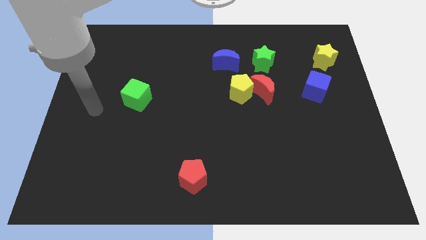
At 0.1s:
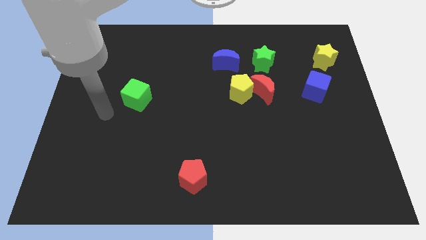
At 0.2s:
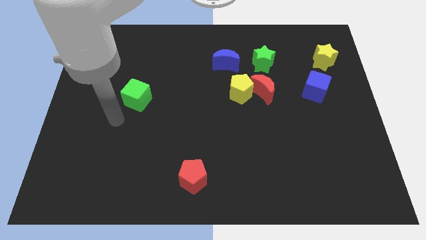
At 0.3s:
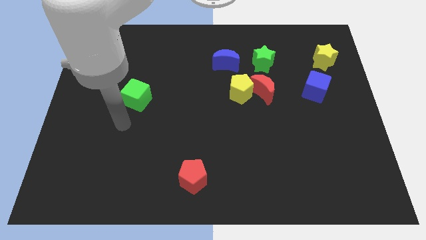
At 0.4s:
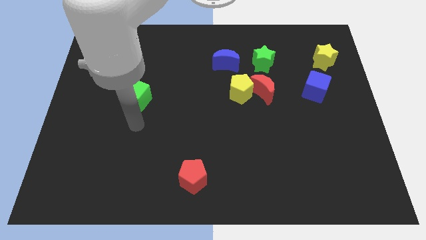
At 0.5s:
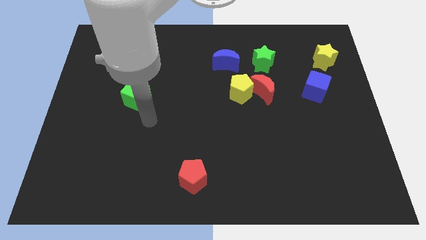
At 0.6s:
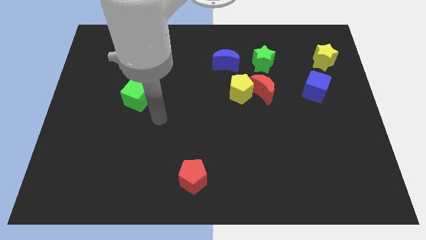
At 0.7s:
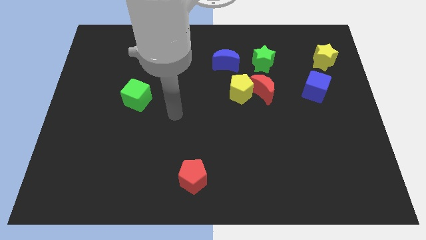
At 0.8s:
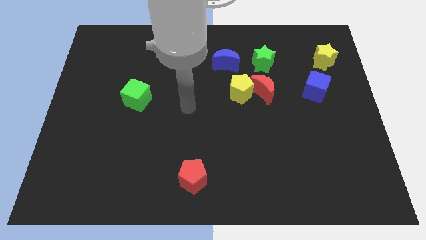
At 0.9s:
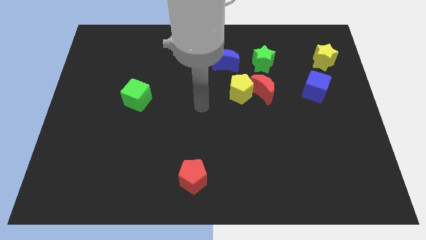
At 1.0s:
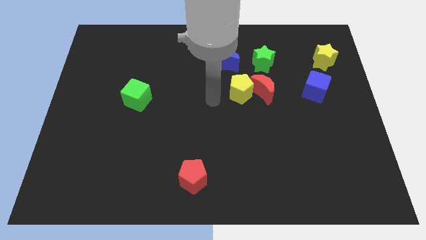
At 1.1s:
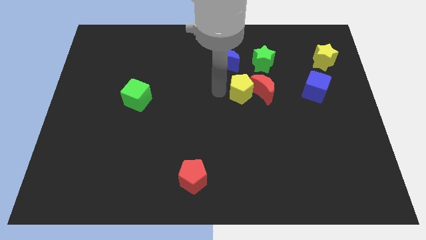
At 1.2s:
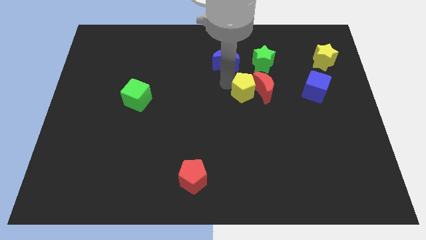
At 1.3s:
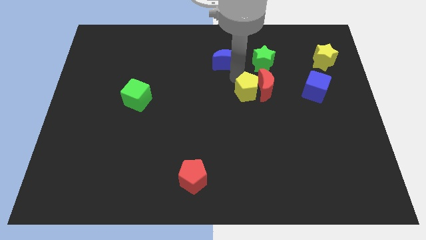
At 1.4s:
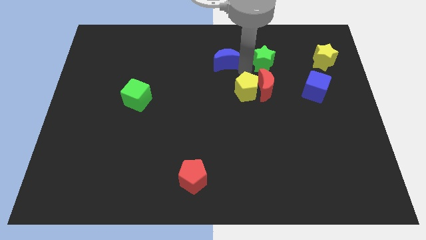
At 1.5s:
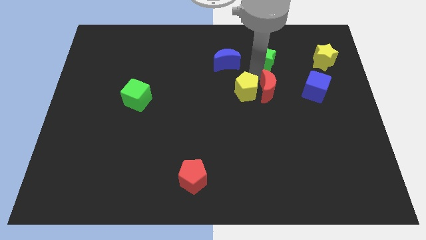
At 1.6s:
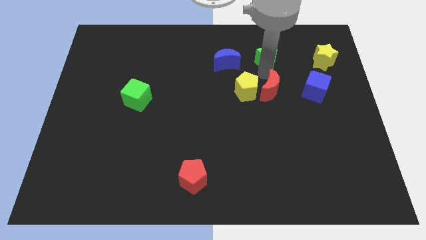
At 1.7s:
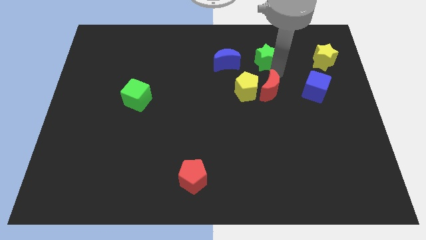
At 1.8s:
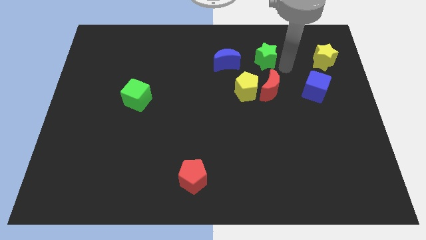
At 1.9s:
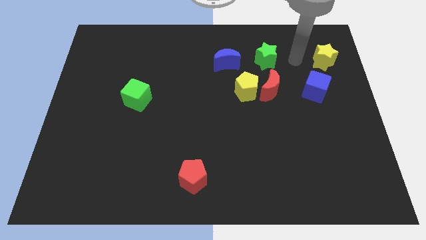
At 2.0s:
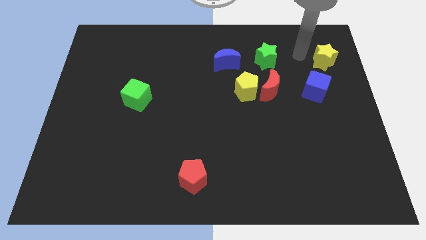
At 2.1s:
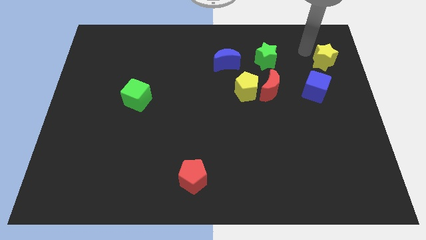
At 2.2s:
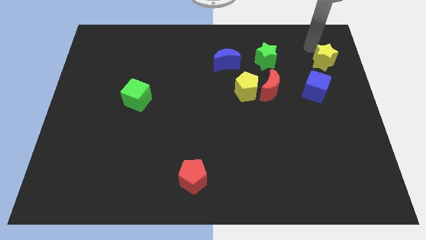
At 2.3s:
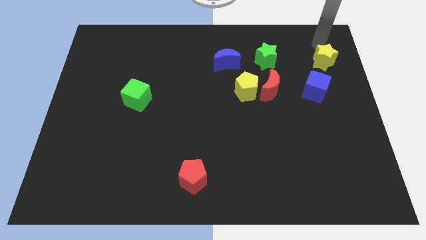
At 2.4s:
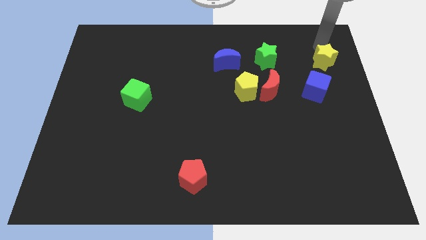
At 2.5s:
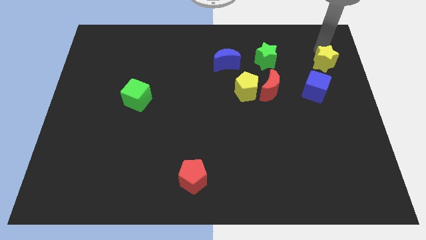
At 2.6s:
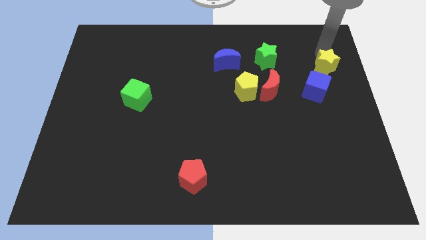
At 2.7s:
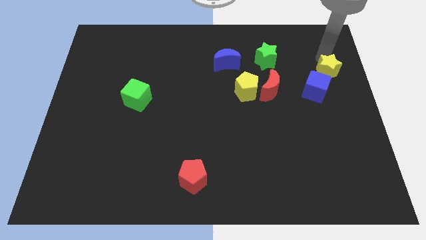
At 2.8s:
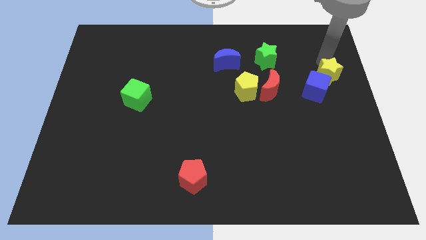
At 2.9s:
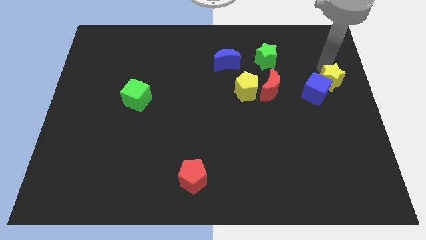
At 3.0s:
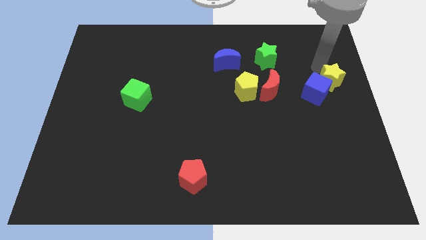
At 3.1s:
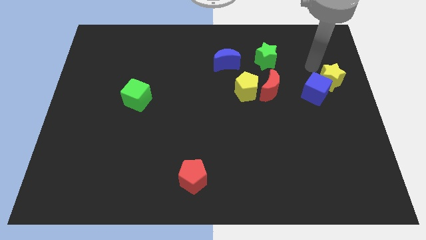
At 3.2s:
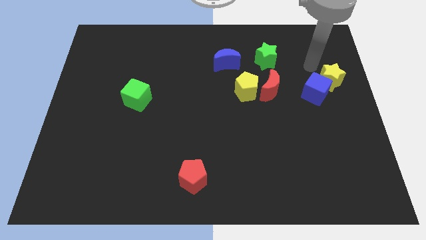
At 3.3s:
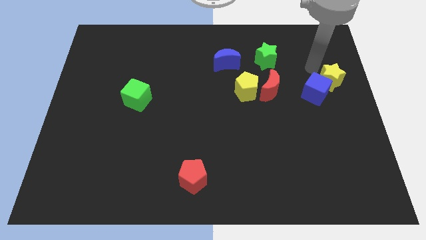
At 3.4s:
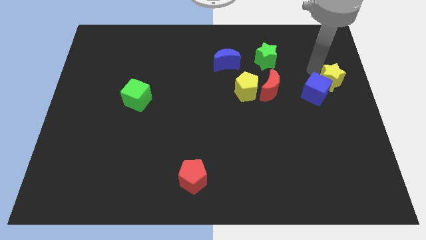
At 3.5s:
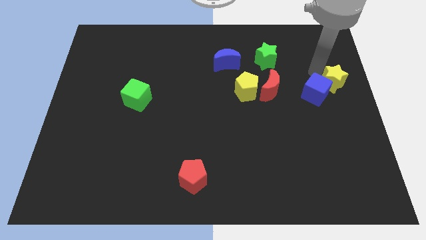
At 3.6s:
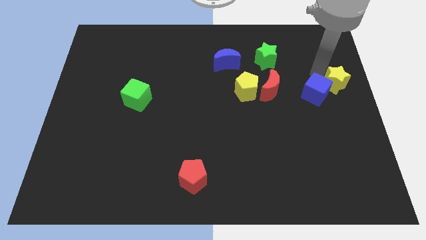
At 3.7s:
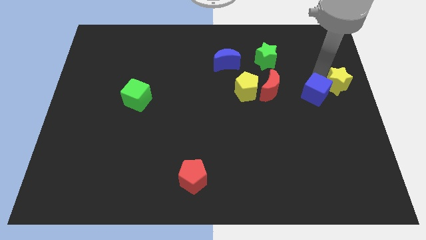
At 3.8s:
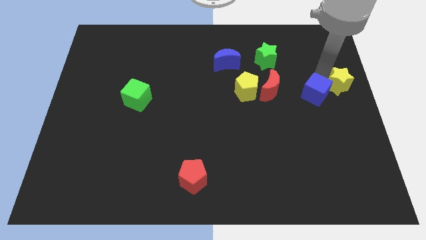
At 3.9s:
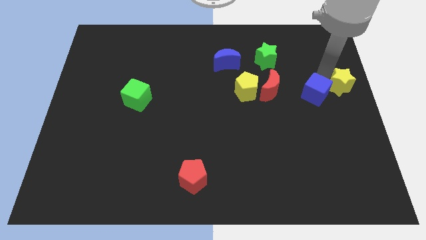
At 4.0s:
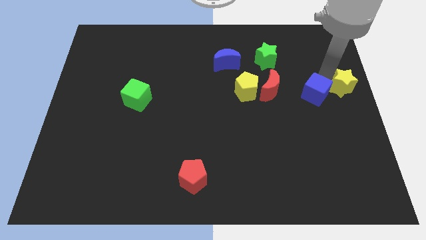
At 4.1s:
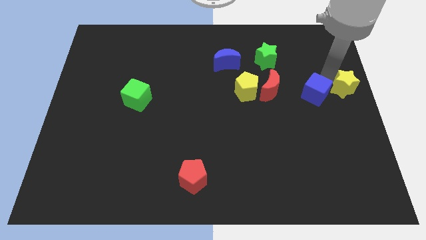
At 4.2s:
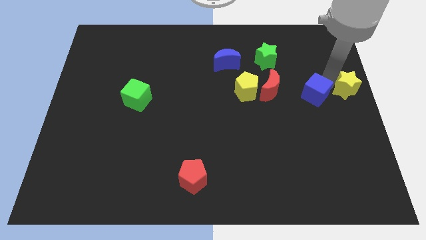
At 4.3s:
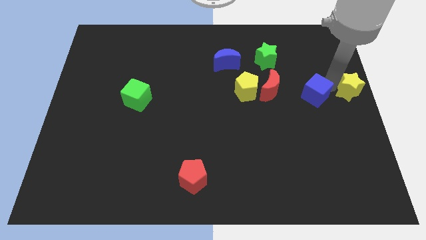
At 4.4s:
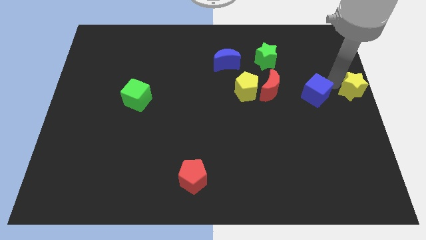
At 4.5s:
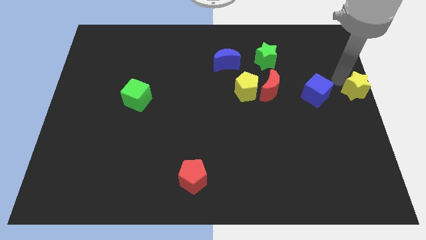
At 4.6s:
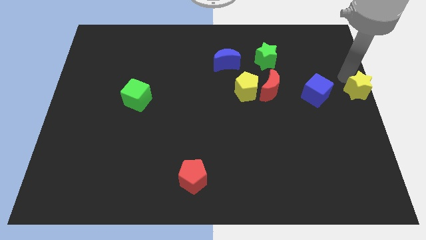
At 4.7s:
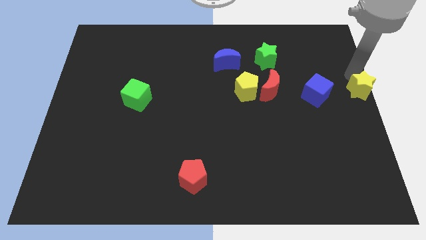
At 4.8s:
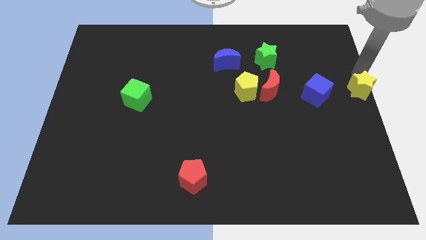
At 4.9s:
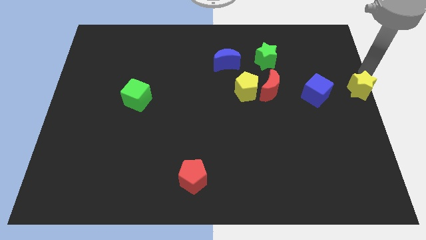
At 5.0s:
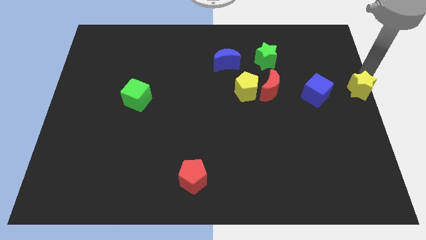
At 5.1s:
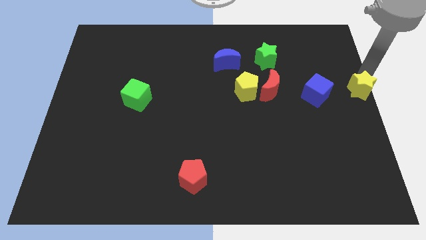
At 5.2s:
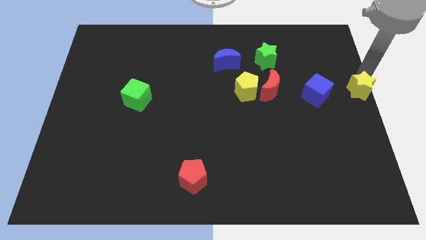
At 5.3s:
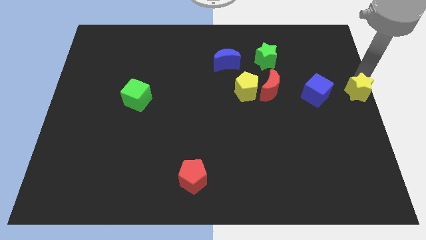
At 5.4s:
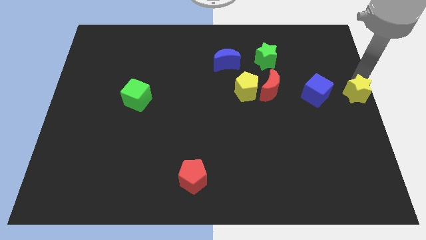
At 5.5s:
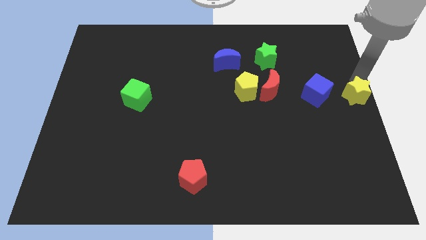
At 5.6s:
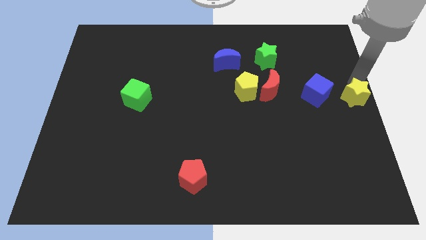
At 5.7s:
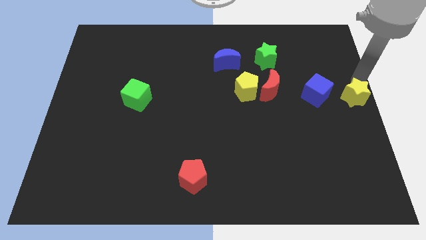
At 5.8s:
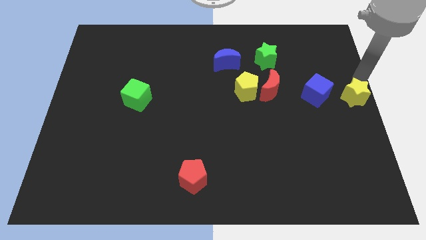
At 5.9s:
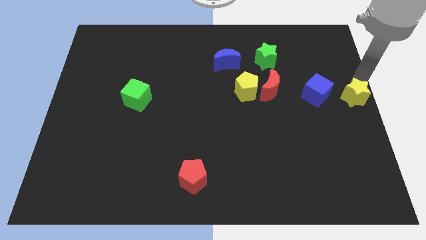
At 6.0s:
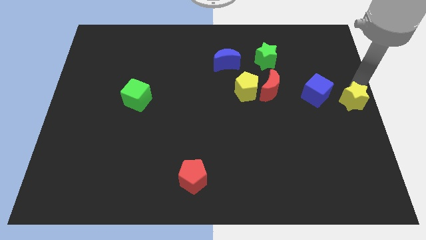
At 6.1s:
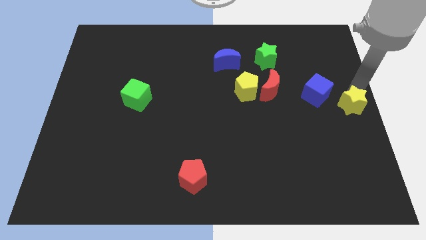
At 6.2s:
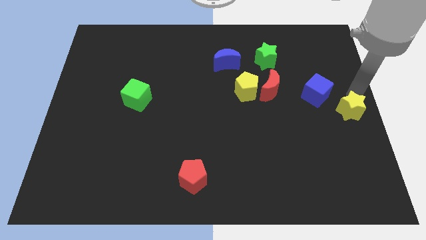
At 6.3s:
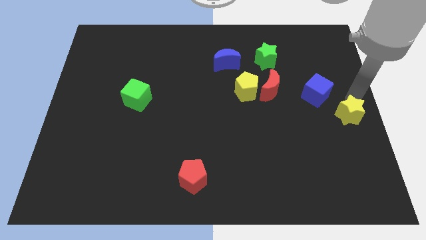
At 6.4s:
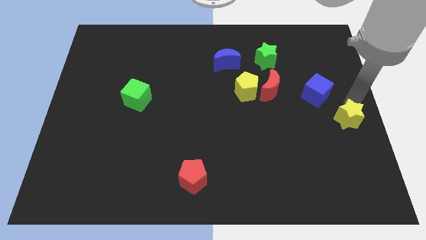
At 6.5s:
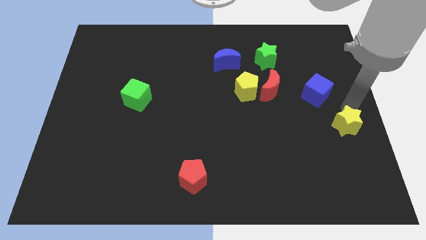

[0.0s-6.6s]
slide the yellow star down

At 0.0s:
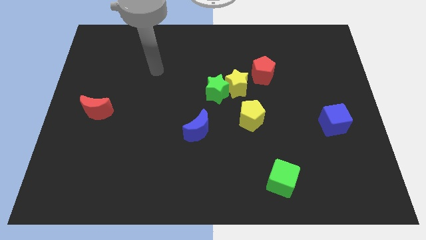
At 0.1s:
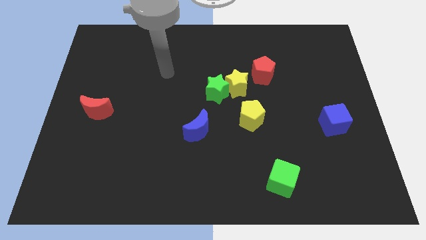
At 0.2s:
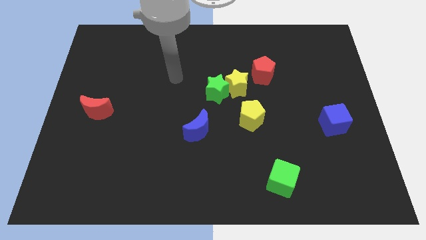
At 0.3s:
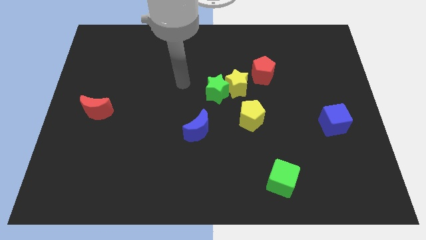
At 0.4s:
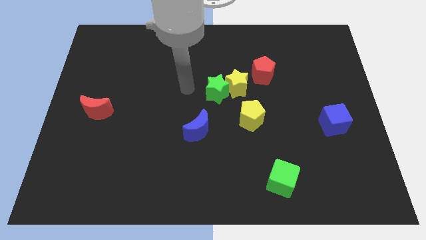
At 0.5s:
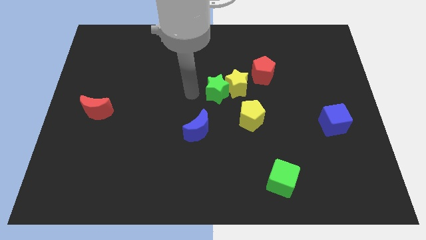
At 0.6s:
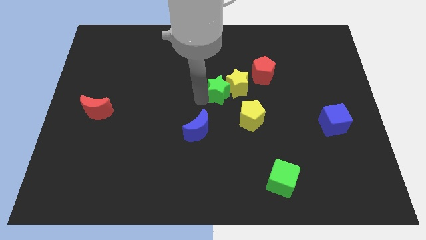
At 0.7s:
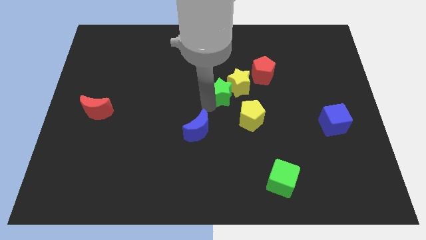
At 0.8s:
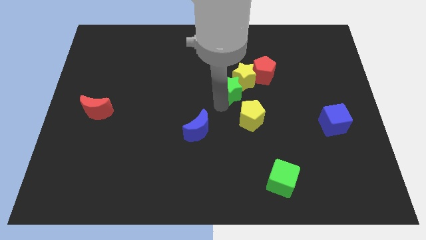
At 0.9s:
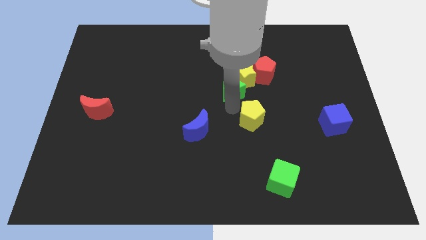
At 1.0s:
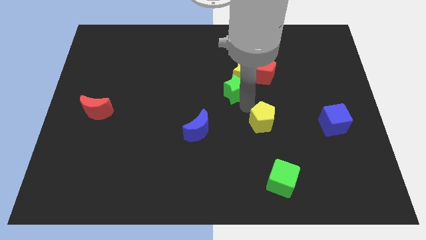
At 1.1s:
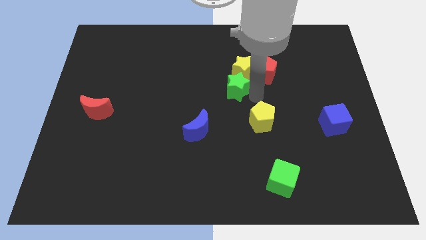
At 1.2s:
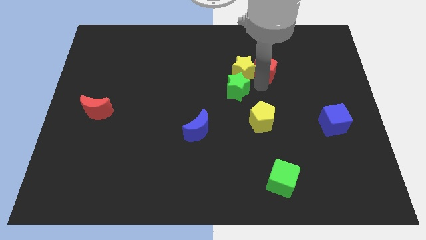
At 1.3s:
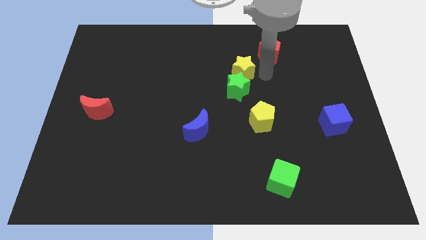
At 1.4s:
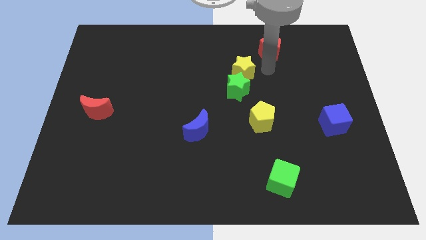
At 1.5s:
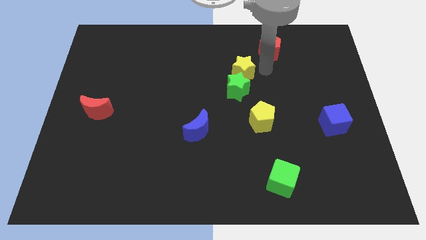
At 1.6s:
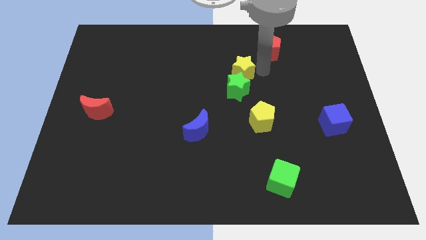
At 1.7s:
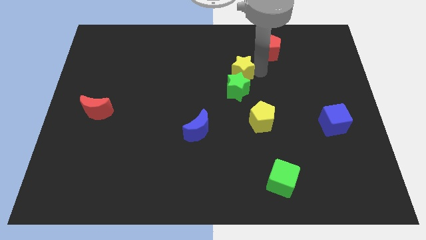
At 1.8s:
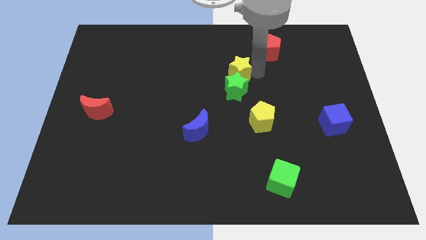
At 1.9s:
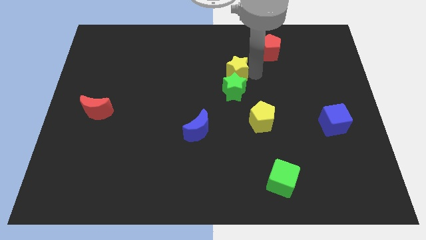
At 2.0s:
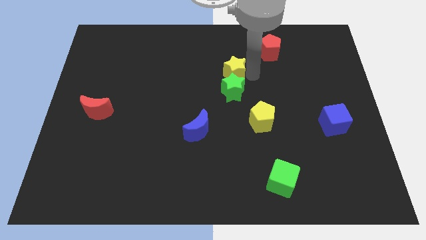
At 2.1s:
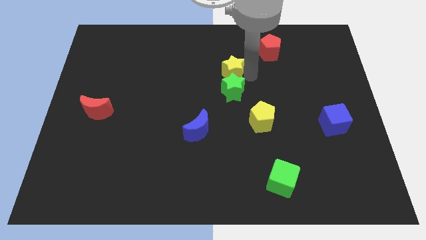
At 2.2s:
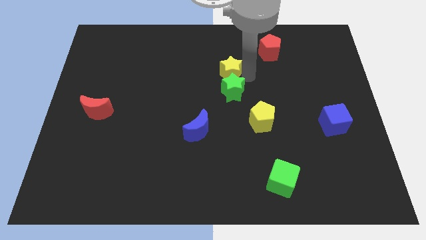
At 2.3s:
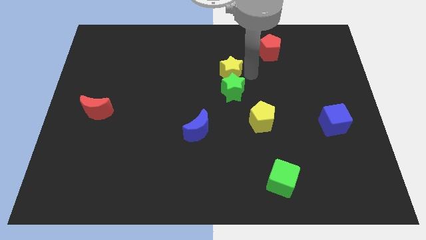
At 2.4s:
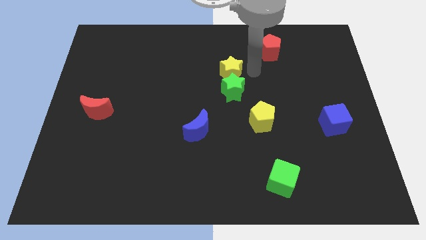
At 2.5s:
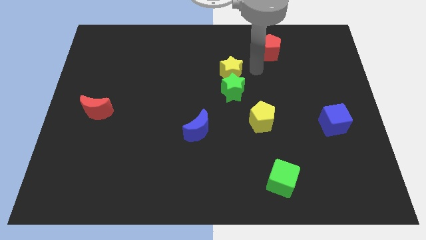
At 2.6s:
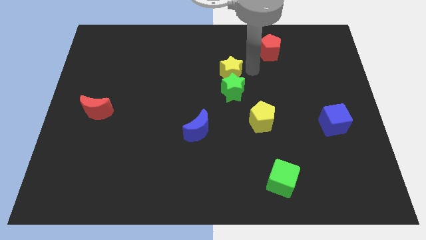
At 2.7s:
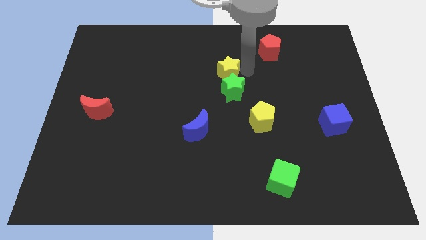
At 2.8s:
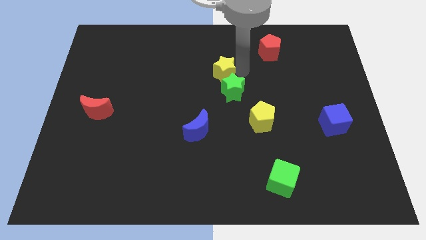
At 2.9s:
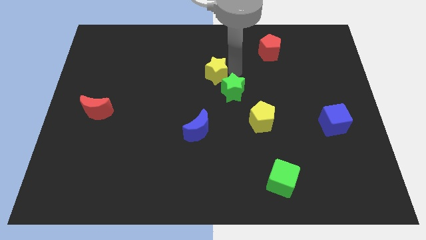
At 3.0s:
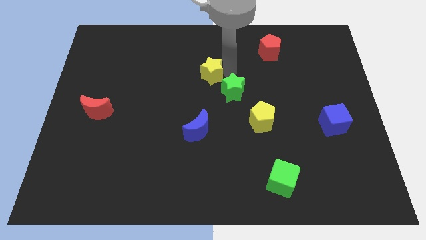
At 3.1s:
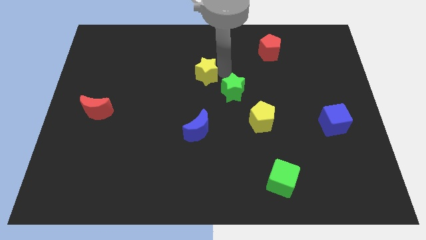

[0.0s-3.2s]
move the yellow star left a little
